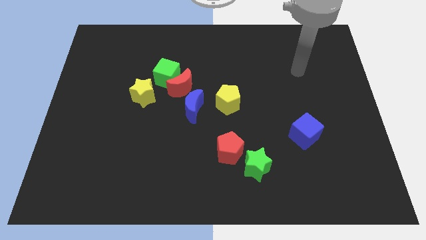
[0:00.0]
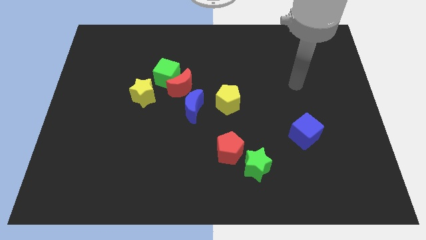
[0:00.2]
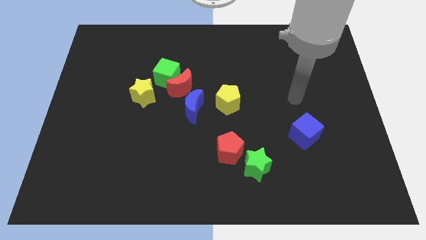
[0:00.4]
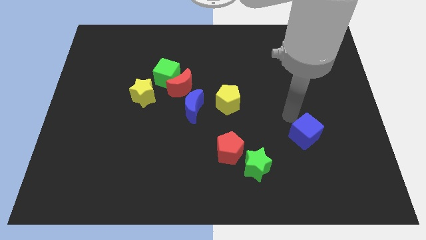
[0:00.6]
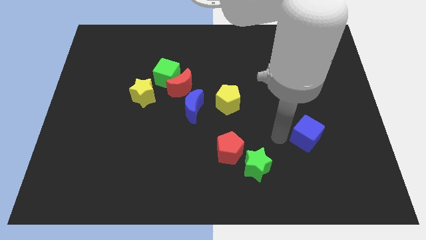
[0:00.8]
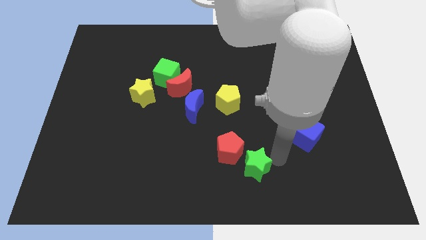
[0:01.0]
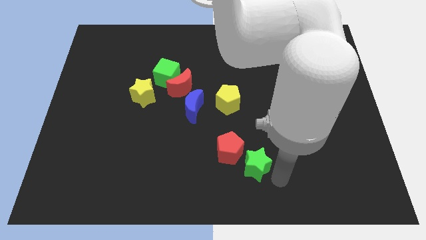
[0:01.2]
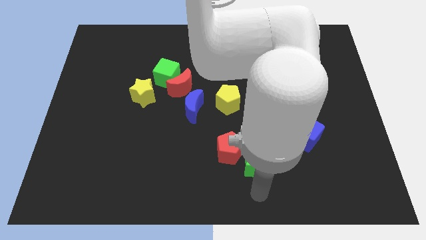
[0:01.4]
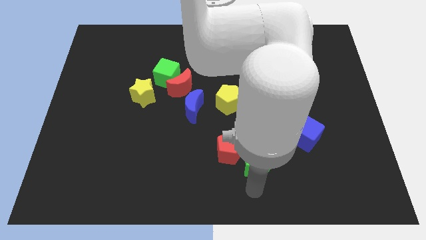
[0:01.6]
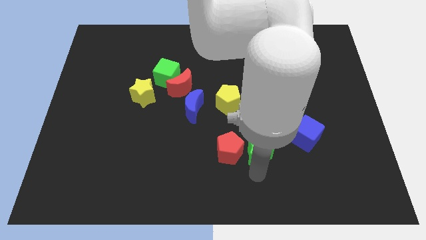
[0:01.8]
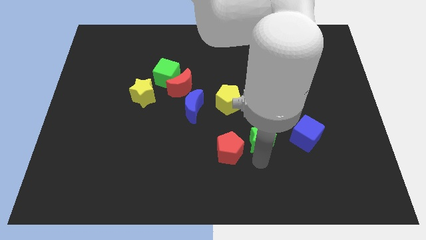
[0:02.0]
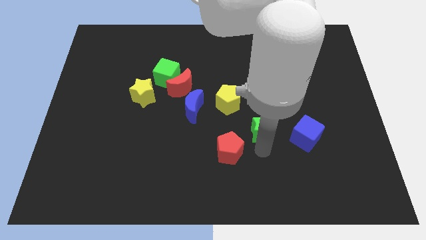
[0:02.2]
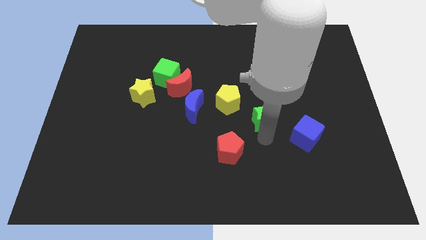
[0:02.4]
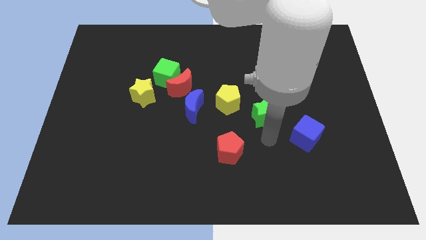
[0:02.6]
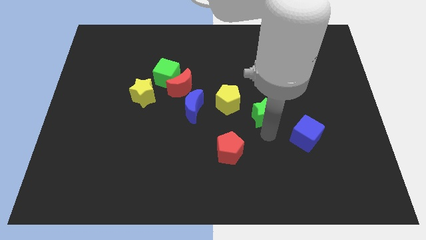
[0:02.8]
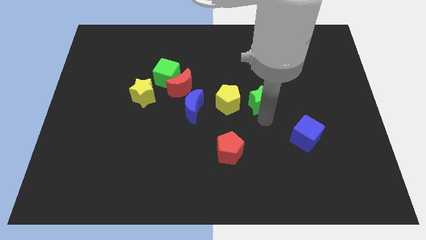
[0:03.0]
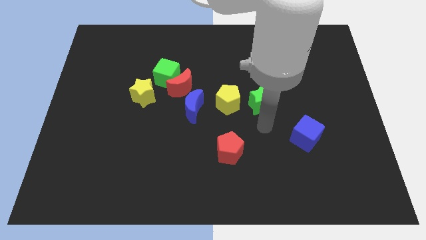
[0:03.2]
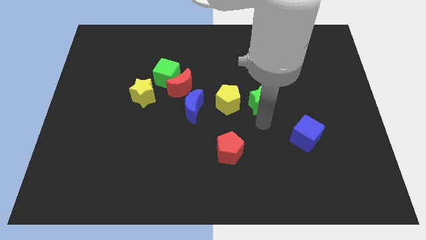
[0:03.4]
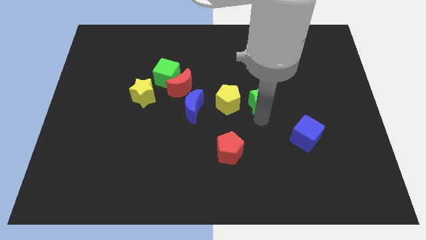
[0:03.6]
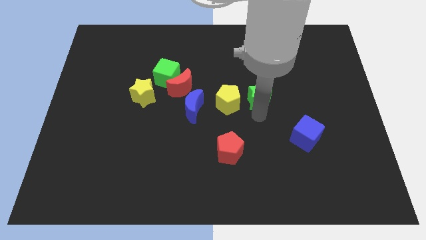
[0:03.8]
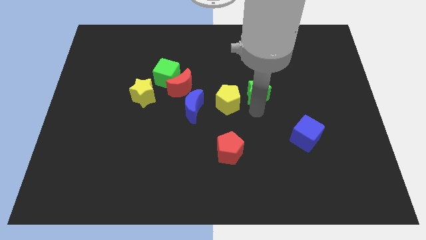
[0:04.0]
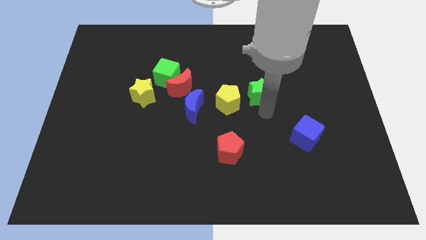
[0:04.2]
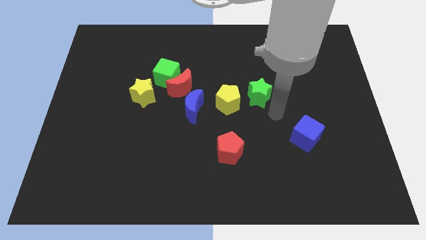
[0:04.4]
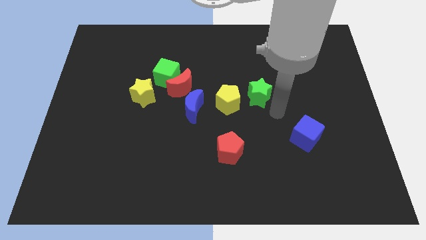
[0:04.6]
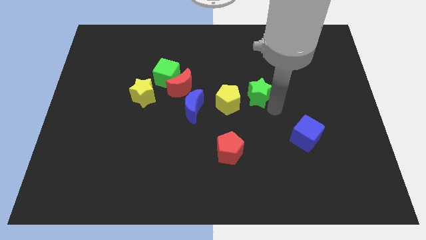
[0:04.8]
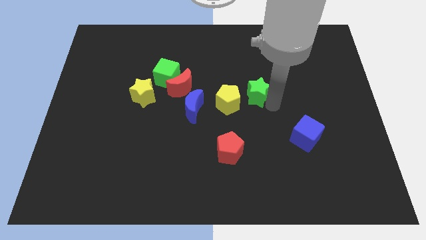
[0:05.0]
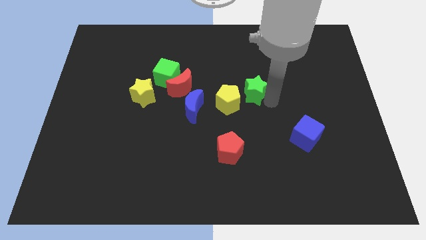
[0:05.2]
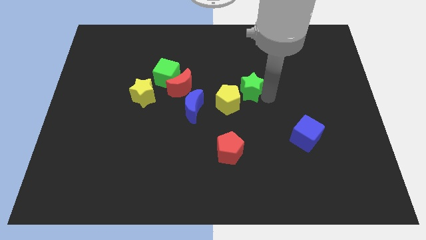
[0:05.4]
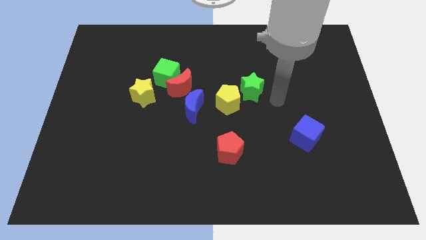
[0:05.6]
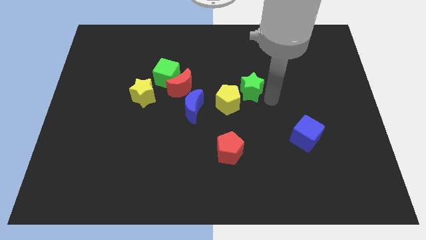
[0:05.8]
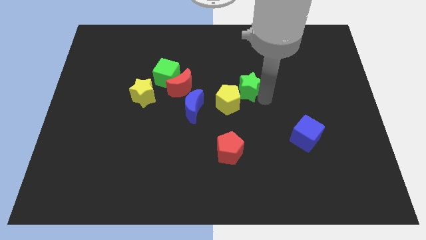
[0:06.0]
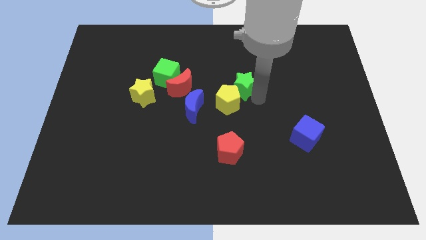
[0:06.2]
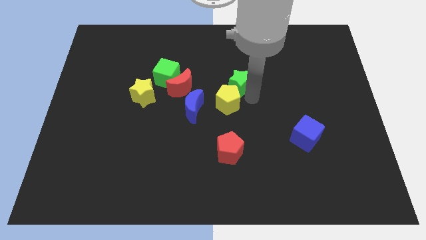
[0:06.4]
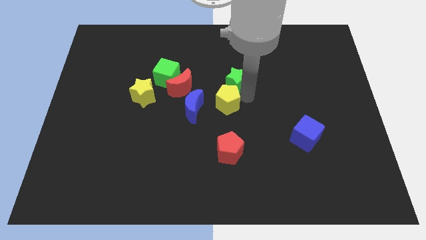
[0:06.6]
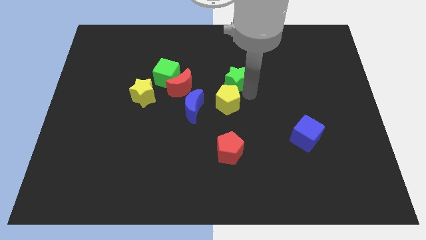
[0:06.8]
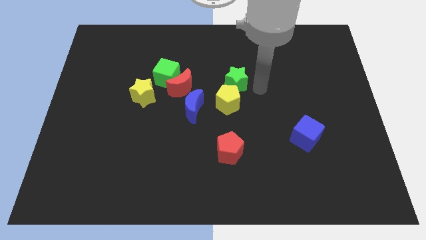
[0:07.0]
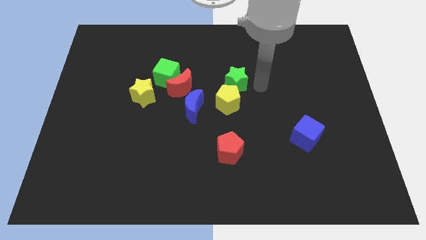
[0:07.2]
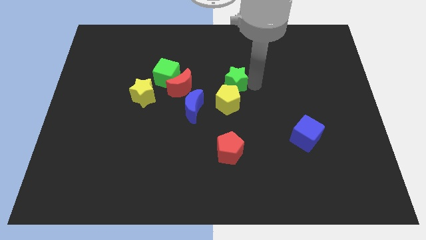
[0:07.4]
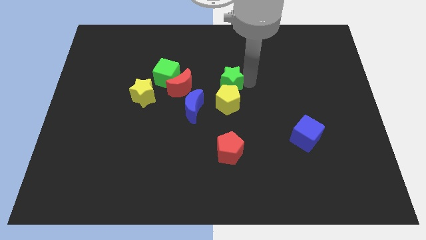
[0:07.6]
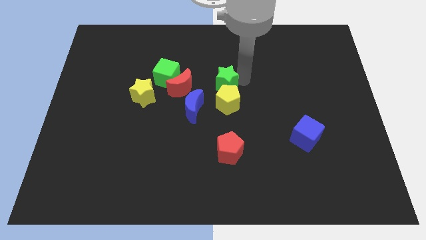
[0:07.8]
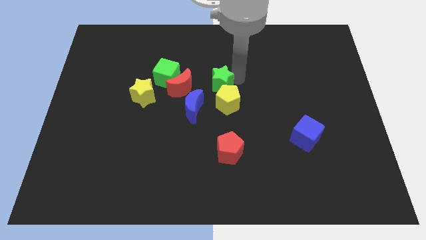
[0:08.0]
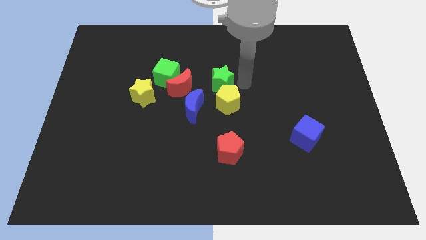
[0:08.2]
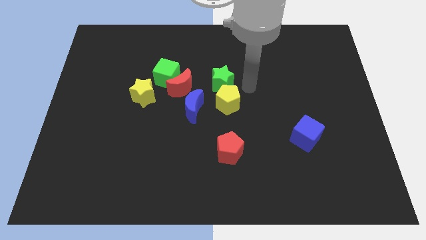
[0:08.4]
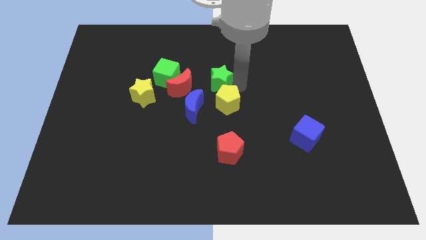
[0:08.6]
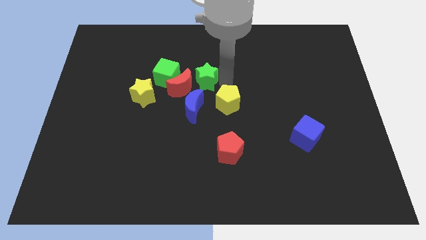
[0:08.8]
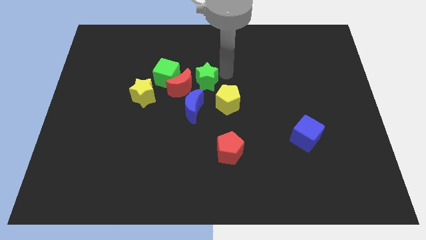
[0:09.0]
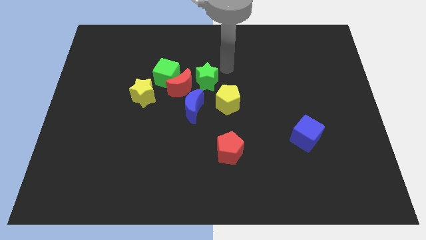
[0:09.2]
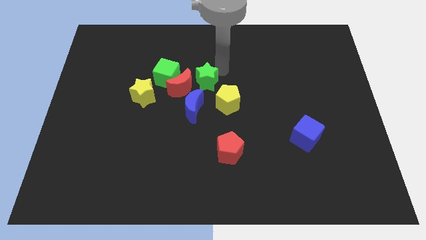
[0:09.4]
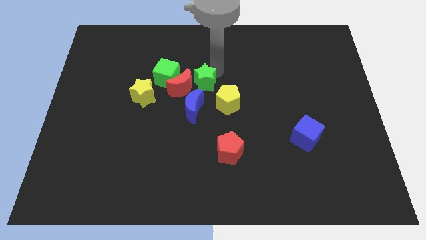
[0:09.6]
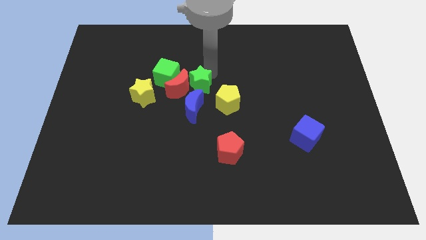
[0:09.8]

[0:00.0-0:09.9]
put the green star right of the yellow star

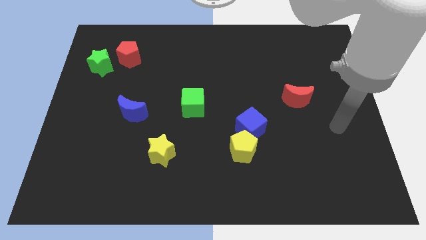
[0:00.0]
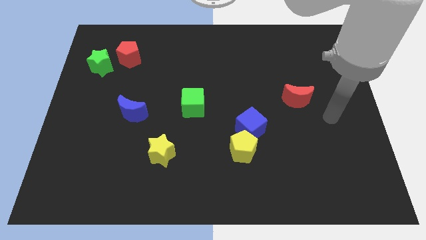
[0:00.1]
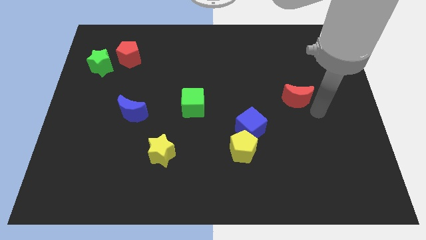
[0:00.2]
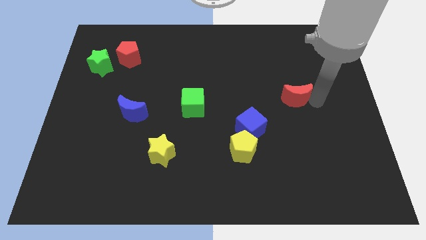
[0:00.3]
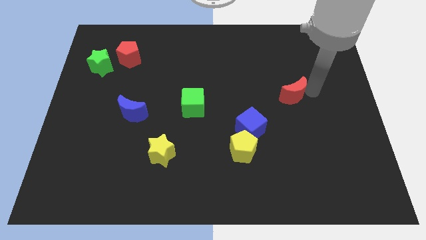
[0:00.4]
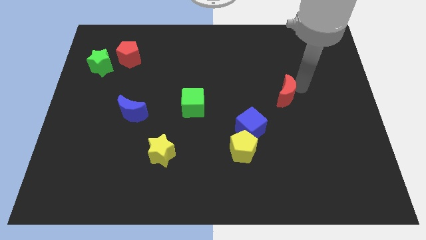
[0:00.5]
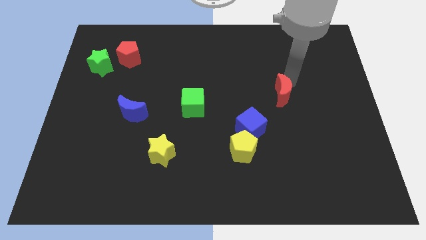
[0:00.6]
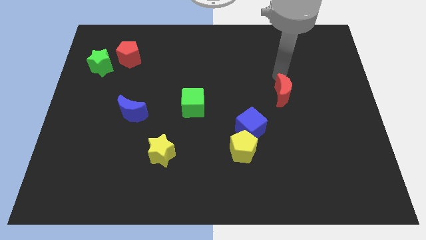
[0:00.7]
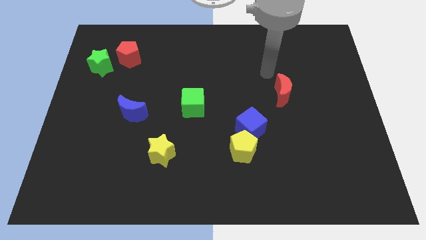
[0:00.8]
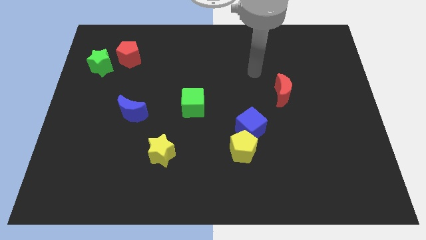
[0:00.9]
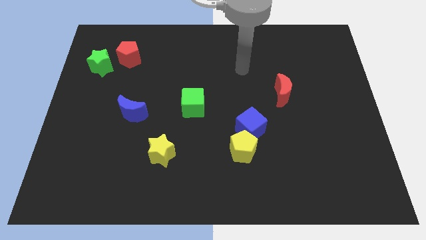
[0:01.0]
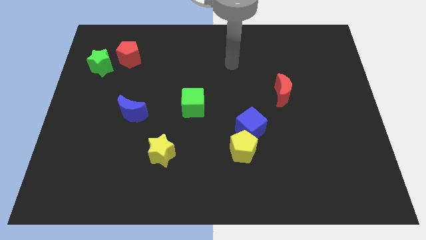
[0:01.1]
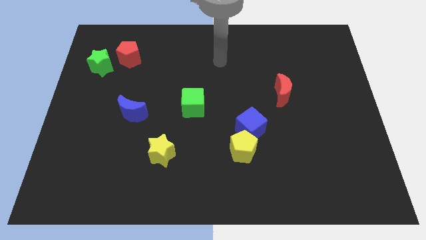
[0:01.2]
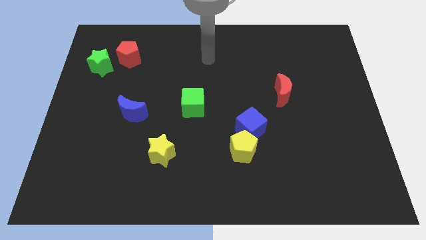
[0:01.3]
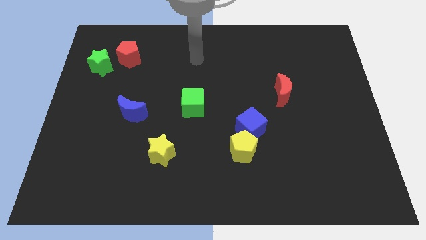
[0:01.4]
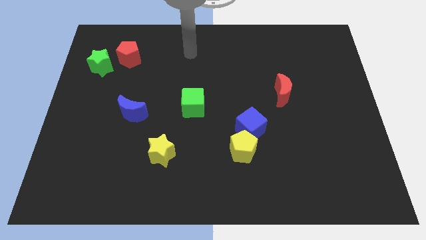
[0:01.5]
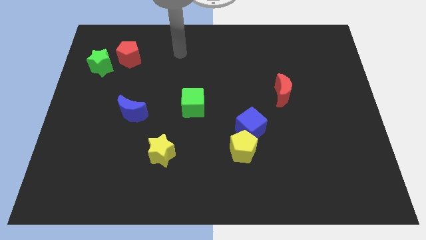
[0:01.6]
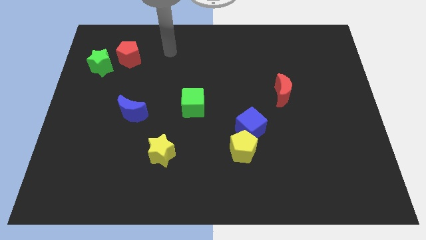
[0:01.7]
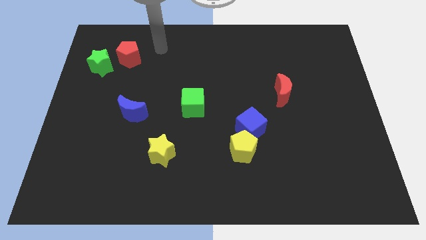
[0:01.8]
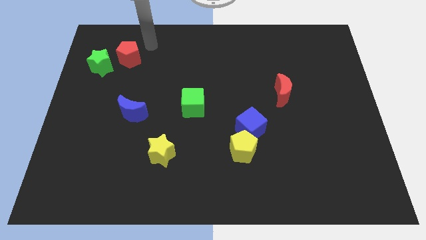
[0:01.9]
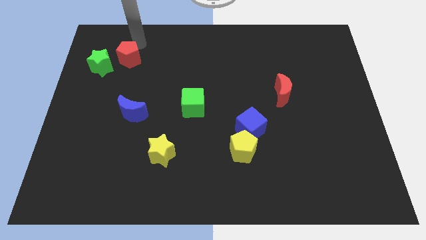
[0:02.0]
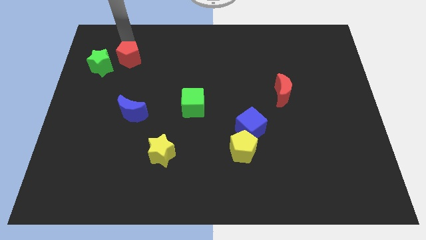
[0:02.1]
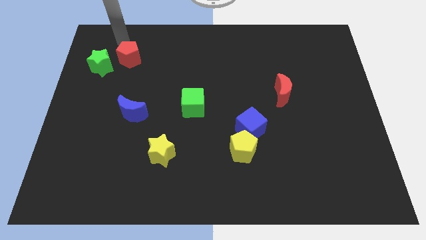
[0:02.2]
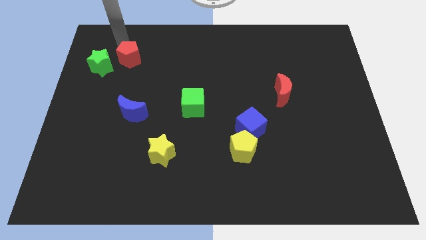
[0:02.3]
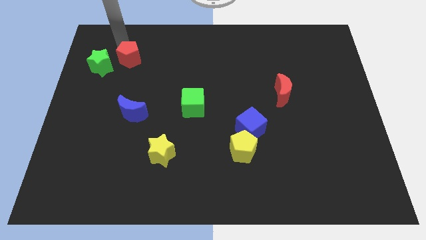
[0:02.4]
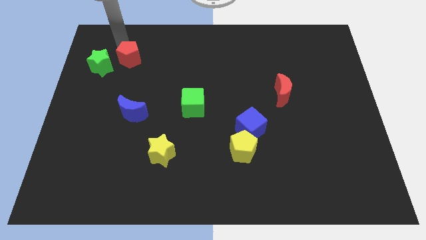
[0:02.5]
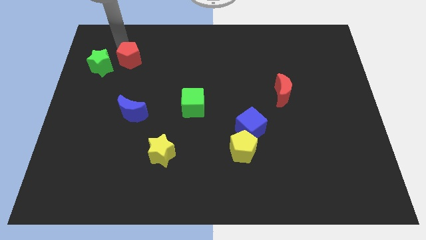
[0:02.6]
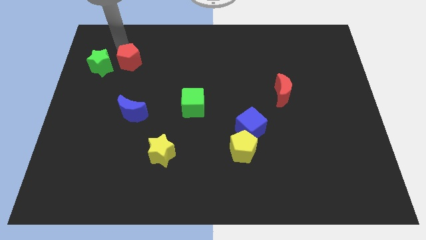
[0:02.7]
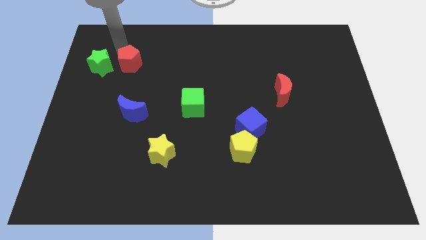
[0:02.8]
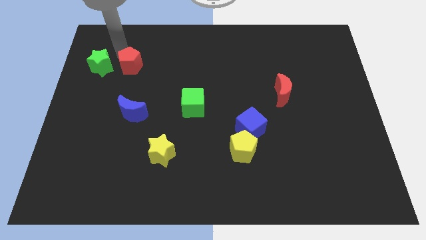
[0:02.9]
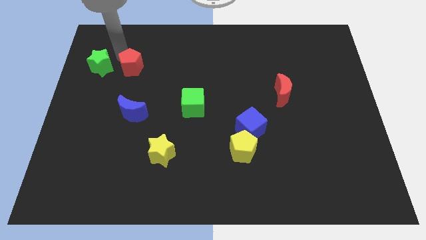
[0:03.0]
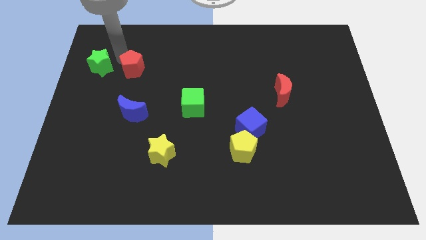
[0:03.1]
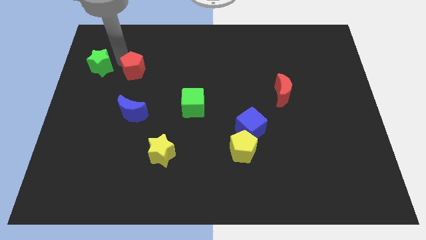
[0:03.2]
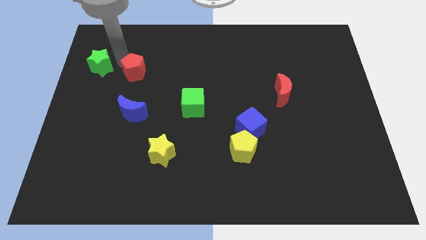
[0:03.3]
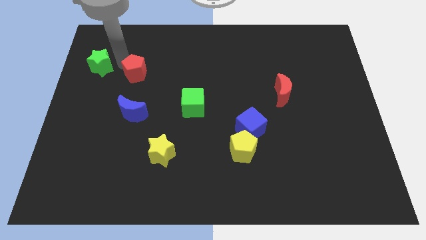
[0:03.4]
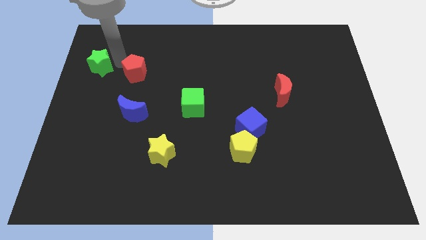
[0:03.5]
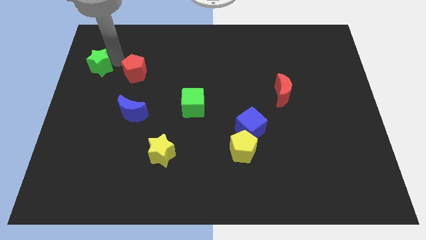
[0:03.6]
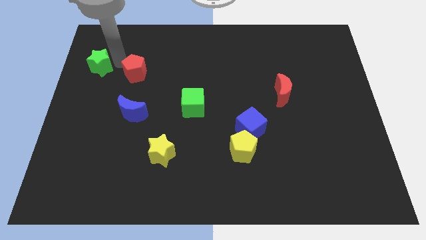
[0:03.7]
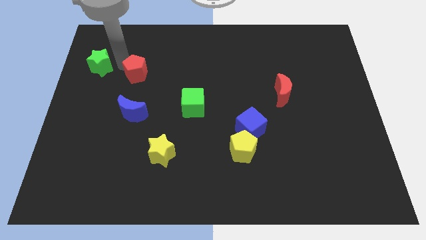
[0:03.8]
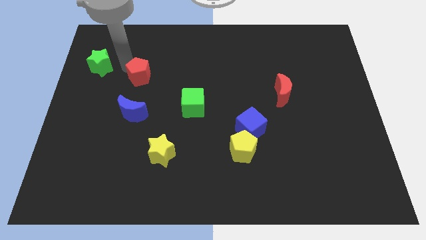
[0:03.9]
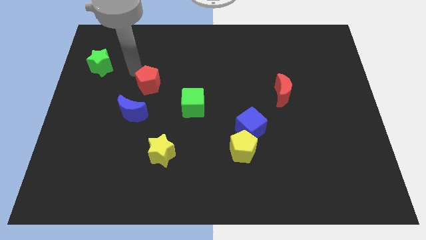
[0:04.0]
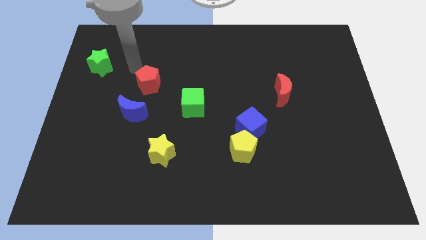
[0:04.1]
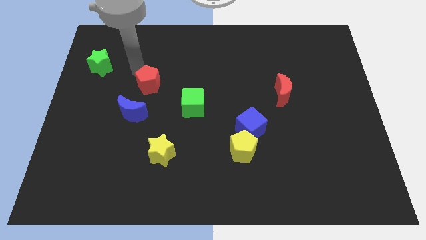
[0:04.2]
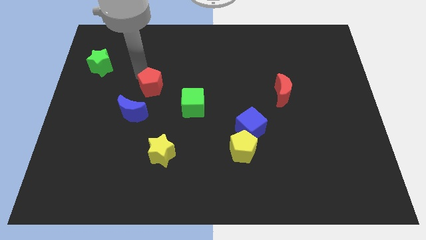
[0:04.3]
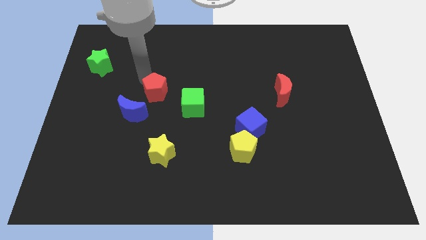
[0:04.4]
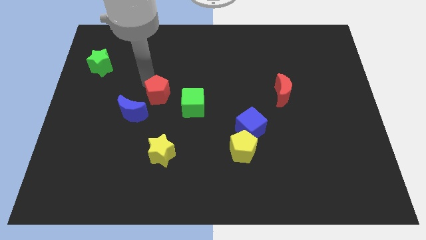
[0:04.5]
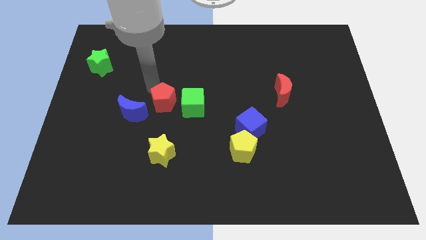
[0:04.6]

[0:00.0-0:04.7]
push the red pentagon to the right side of the blue moon
